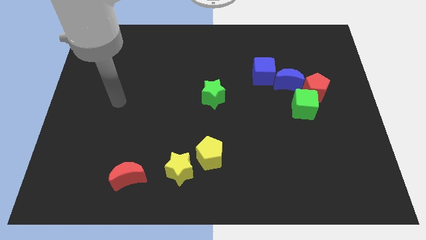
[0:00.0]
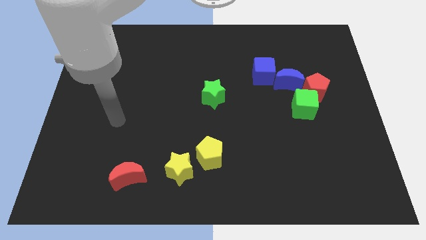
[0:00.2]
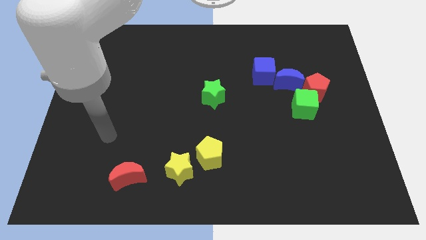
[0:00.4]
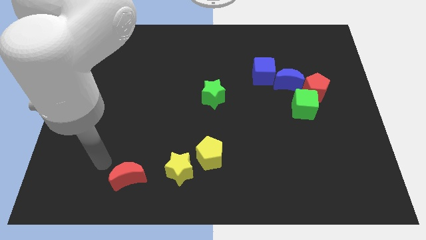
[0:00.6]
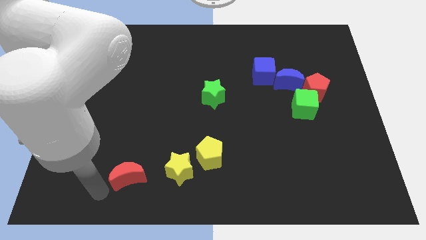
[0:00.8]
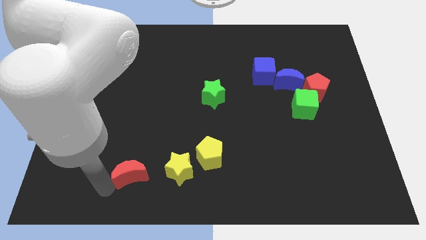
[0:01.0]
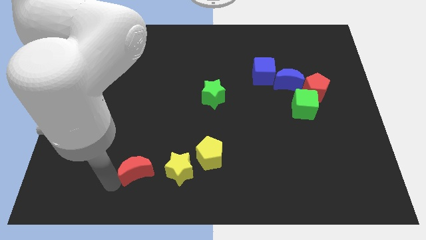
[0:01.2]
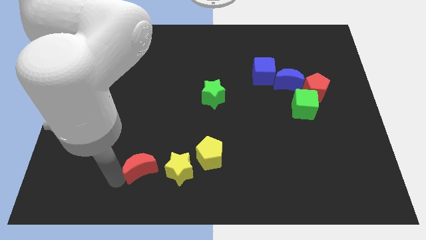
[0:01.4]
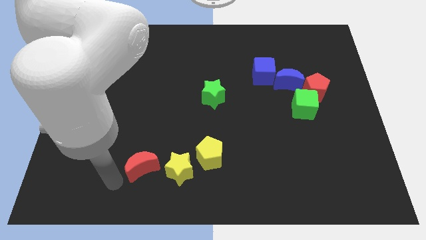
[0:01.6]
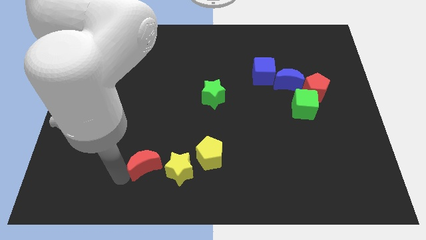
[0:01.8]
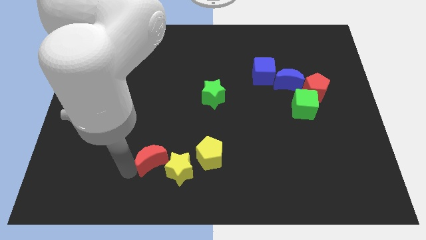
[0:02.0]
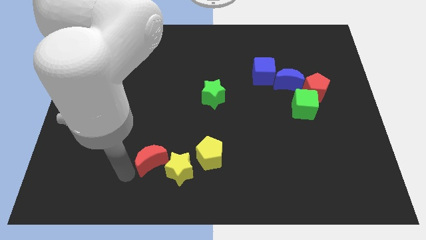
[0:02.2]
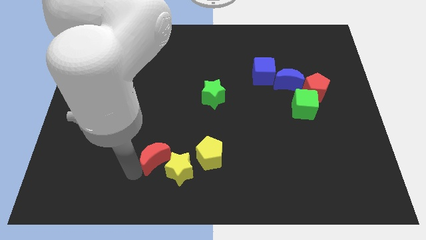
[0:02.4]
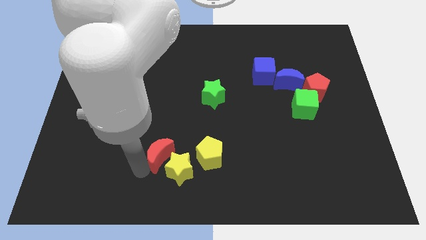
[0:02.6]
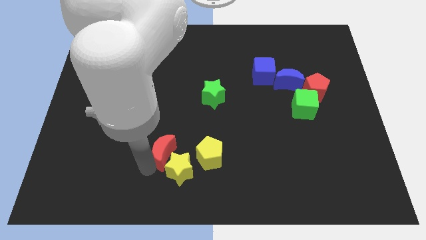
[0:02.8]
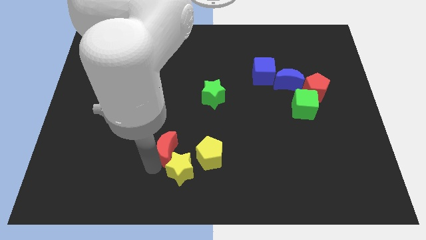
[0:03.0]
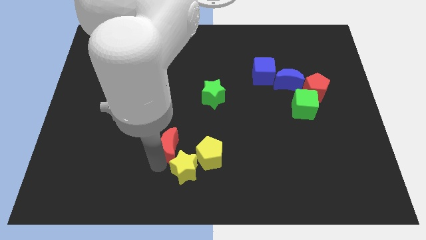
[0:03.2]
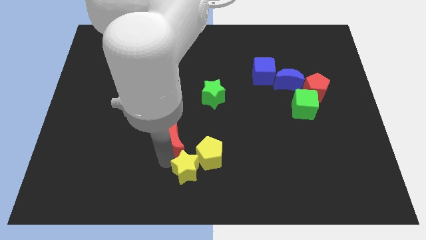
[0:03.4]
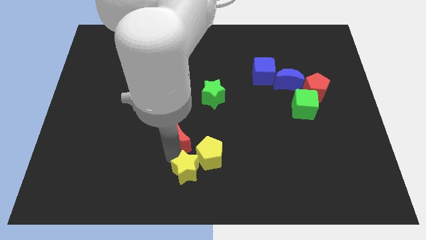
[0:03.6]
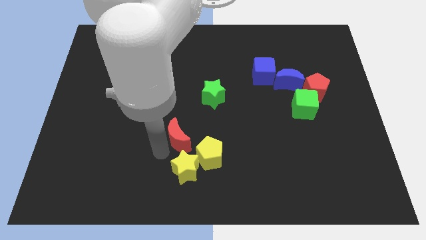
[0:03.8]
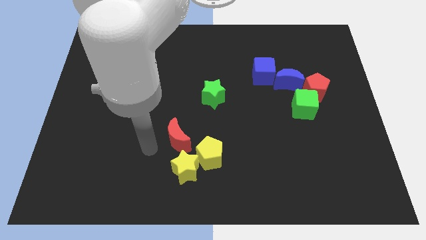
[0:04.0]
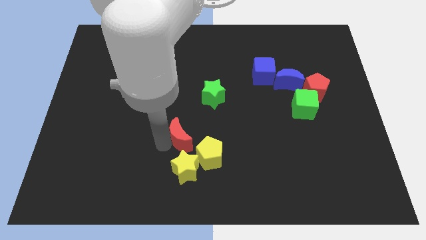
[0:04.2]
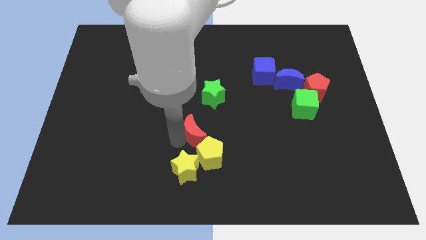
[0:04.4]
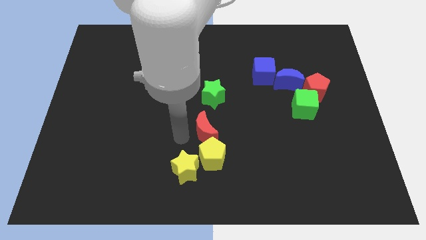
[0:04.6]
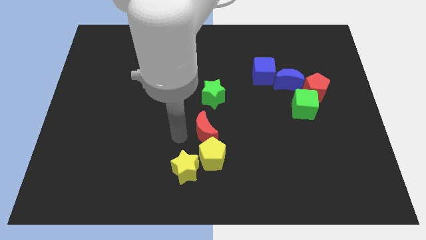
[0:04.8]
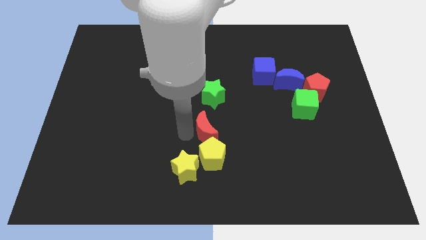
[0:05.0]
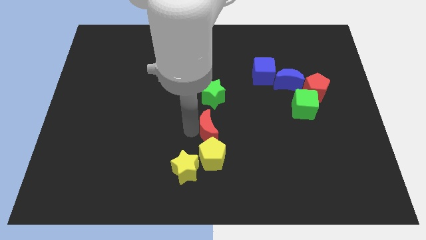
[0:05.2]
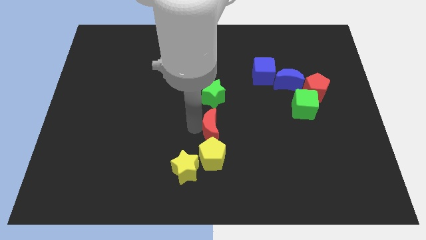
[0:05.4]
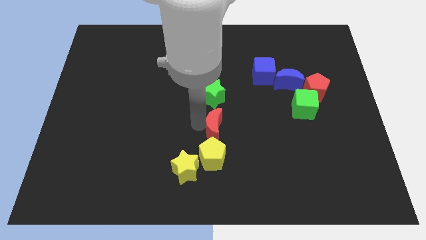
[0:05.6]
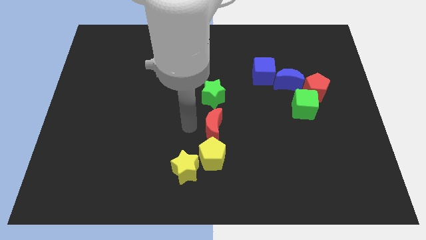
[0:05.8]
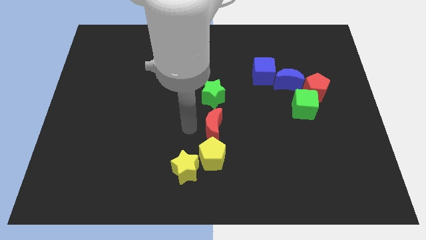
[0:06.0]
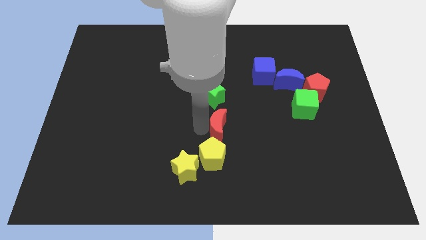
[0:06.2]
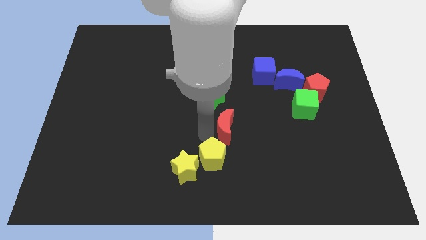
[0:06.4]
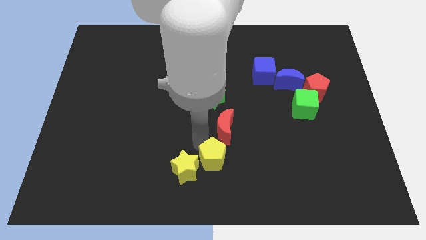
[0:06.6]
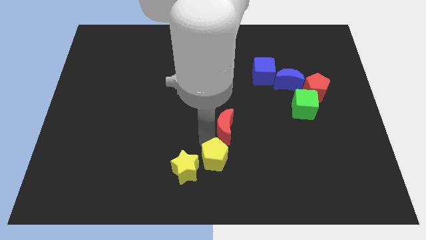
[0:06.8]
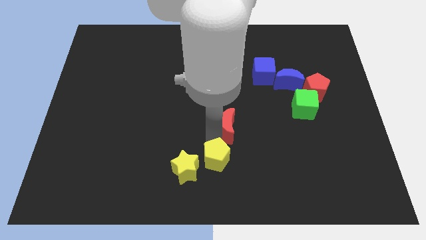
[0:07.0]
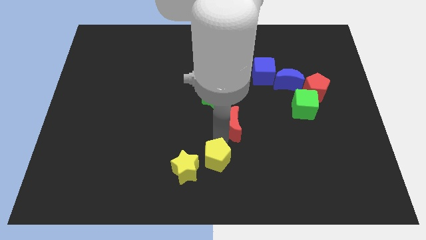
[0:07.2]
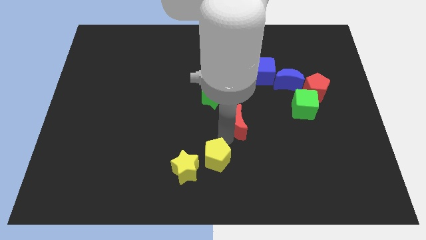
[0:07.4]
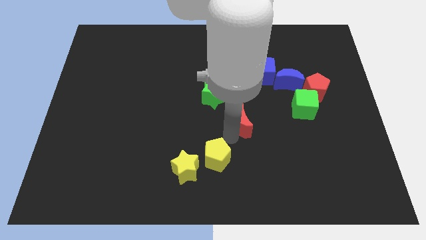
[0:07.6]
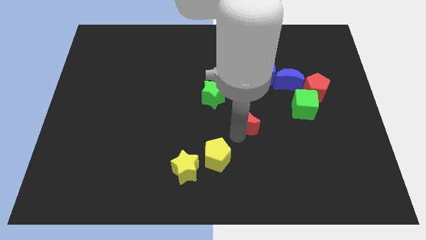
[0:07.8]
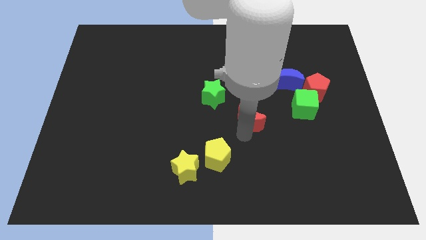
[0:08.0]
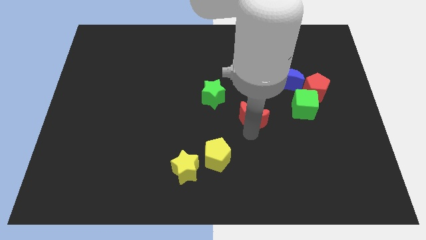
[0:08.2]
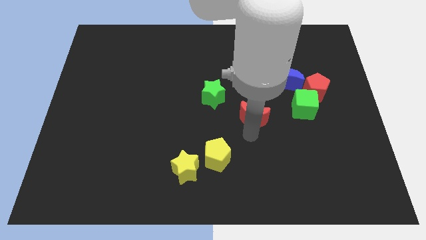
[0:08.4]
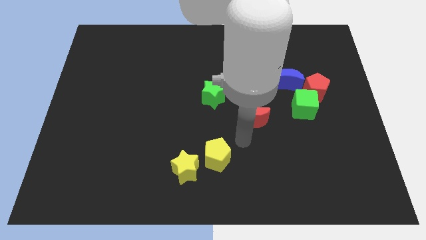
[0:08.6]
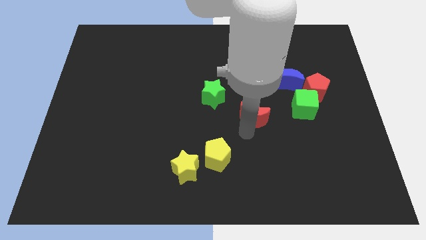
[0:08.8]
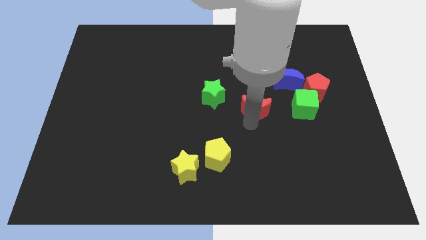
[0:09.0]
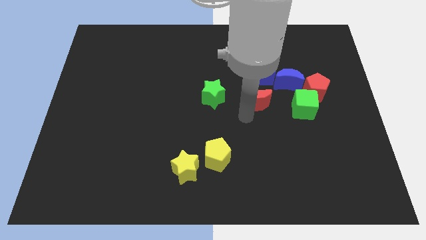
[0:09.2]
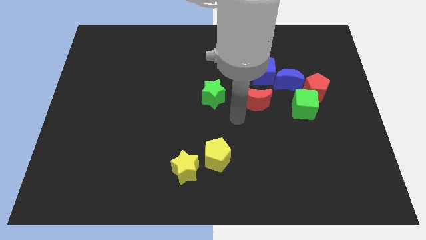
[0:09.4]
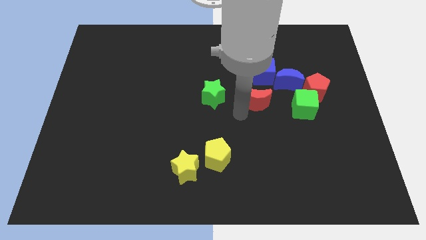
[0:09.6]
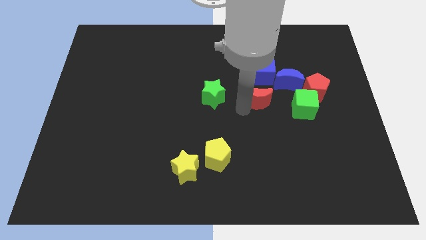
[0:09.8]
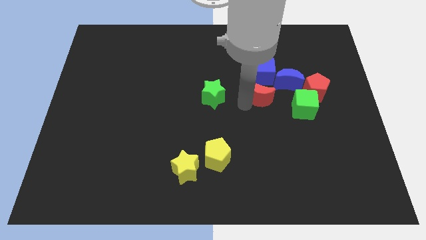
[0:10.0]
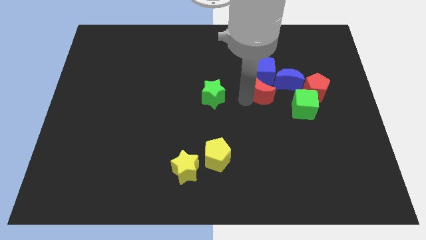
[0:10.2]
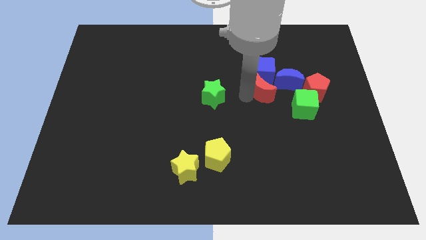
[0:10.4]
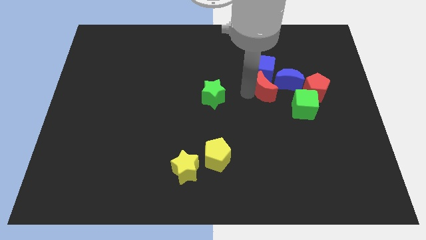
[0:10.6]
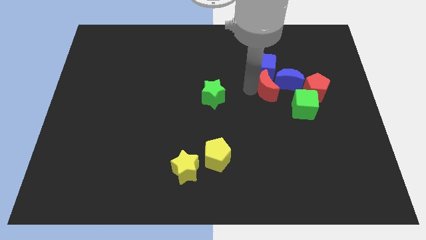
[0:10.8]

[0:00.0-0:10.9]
put the red moon next to the blue moon
